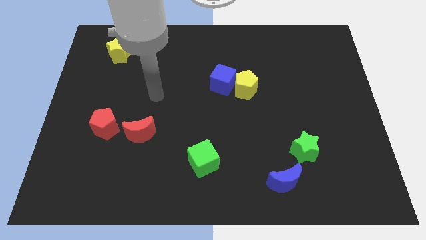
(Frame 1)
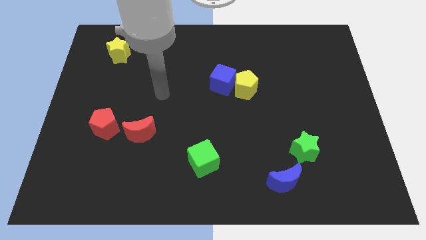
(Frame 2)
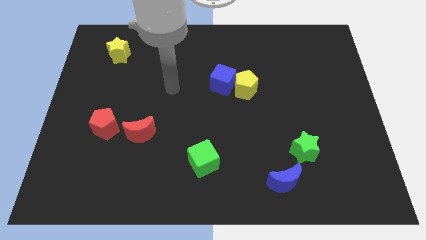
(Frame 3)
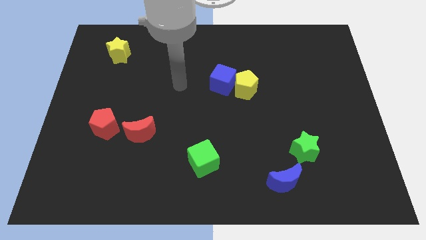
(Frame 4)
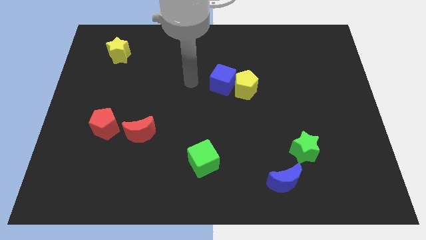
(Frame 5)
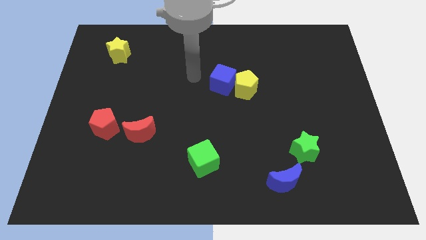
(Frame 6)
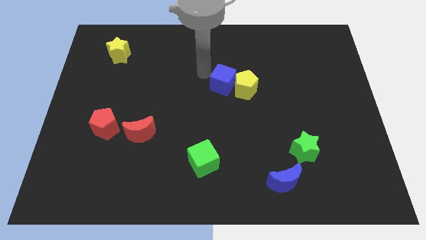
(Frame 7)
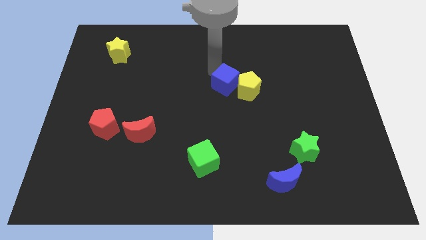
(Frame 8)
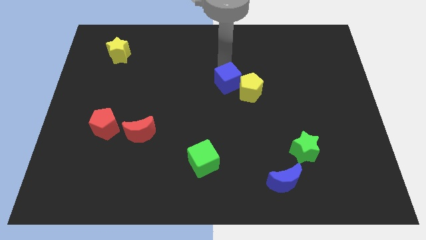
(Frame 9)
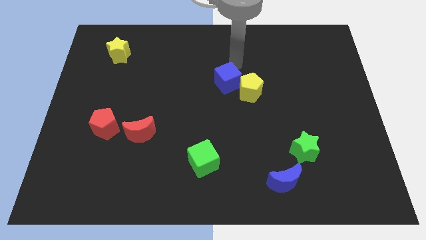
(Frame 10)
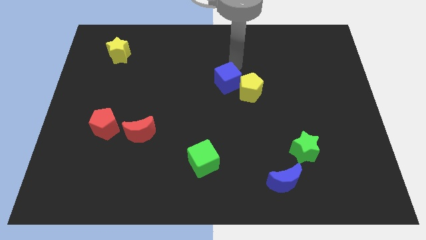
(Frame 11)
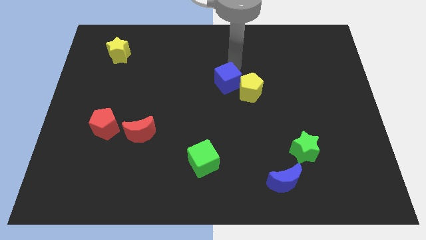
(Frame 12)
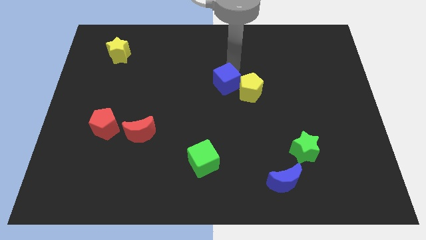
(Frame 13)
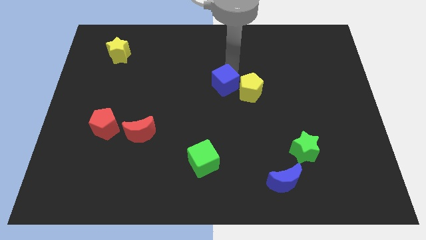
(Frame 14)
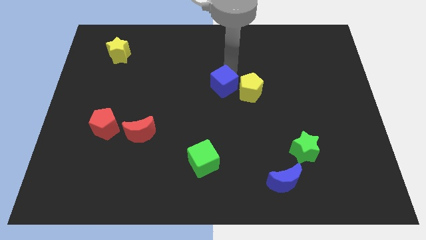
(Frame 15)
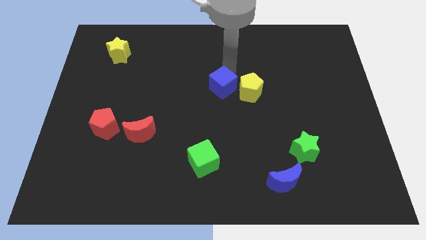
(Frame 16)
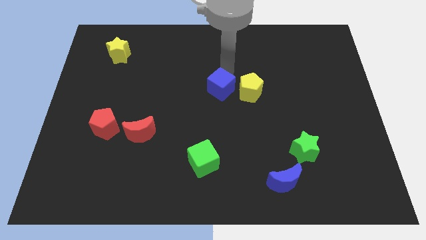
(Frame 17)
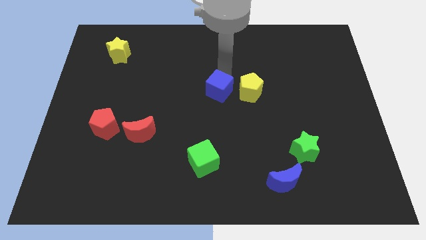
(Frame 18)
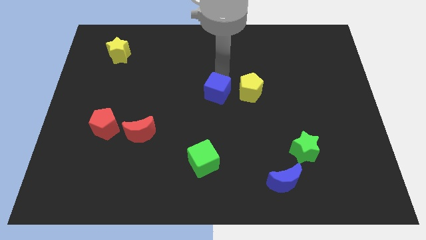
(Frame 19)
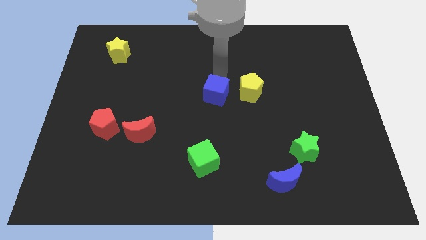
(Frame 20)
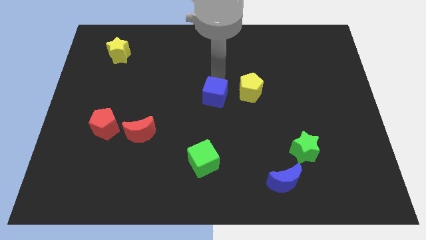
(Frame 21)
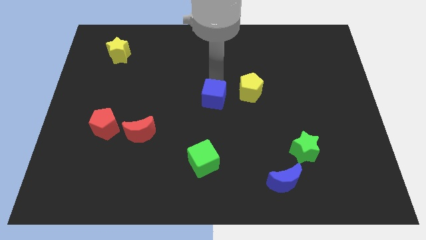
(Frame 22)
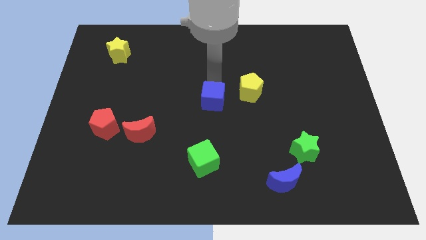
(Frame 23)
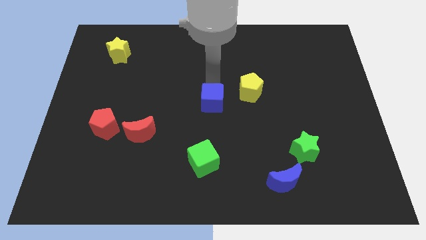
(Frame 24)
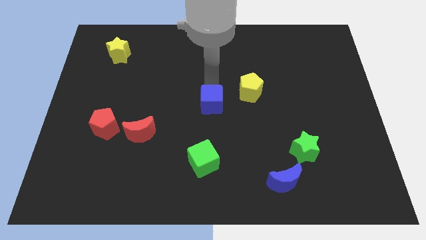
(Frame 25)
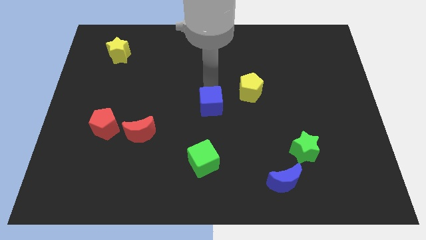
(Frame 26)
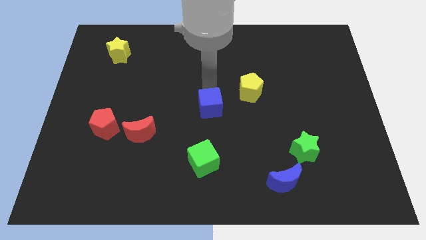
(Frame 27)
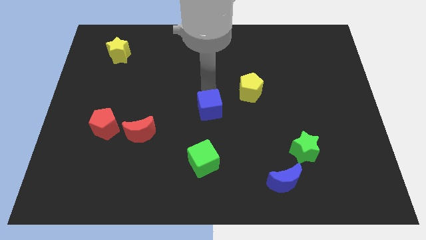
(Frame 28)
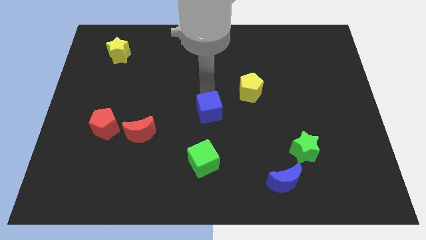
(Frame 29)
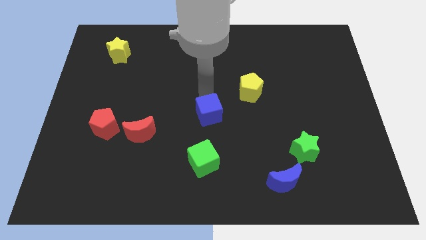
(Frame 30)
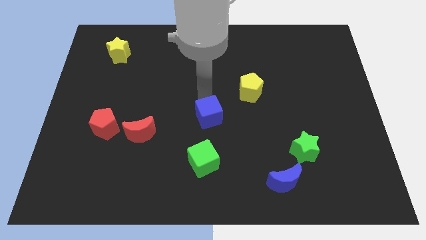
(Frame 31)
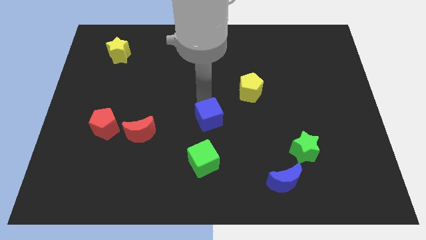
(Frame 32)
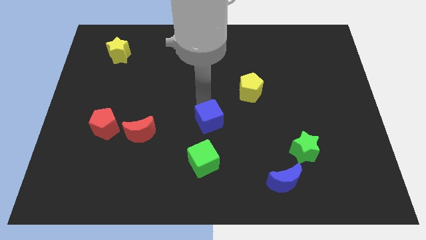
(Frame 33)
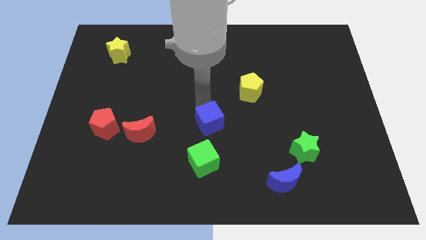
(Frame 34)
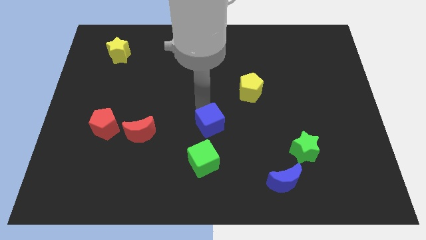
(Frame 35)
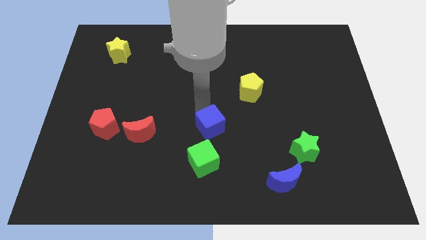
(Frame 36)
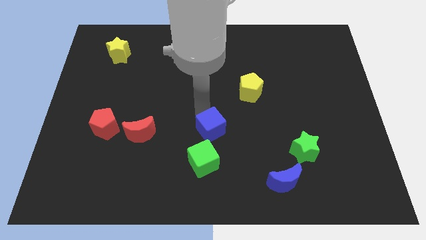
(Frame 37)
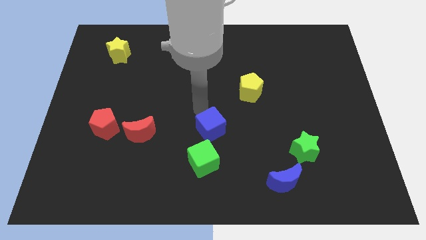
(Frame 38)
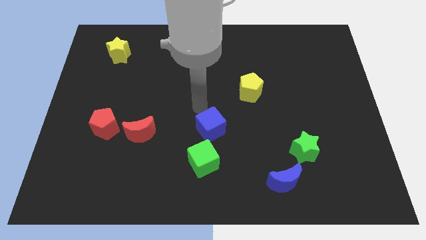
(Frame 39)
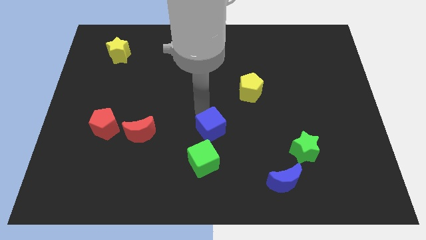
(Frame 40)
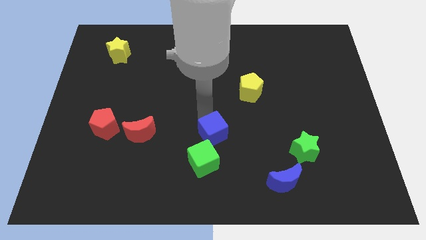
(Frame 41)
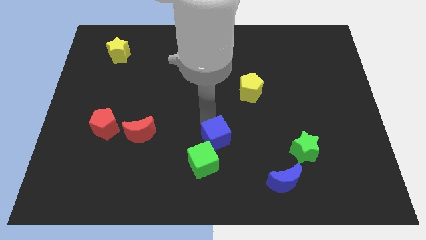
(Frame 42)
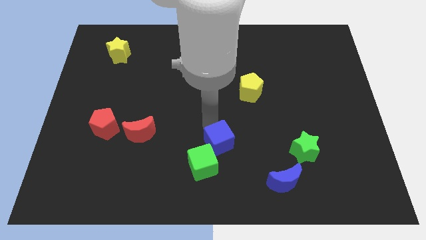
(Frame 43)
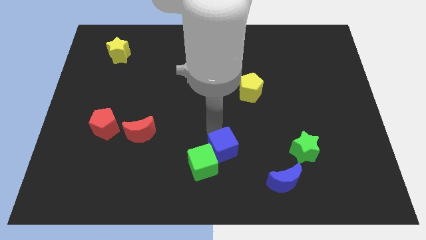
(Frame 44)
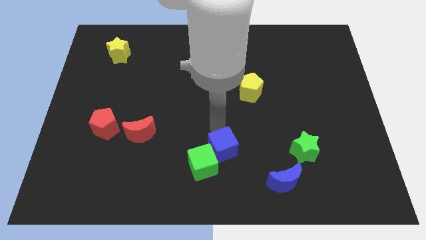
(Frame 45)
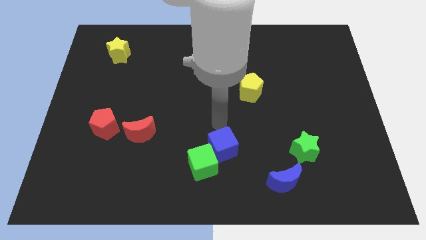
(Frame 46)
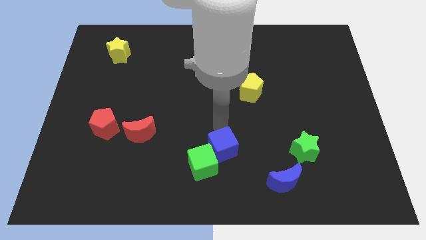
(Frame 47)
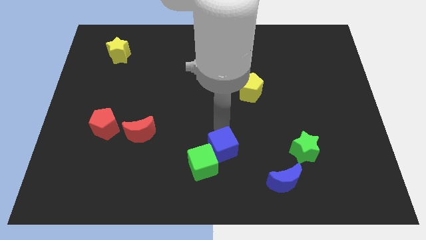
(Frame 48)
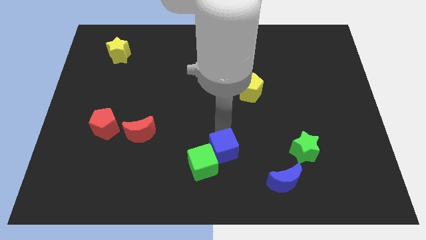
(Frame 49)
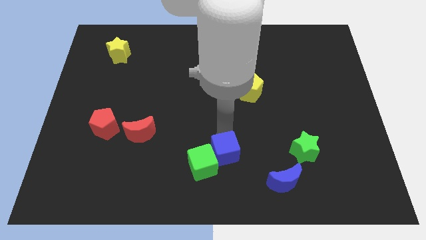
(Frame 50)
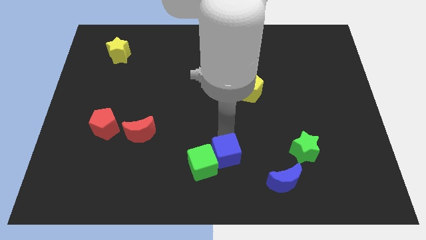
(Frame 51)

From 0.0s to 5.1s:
slide the blue cube to the bottom side

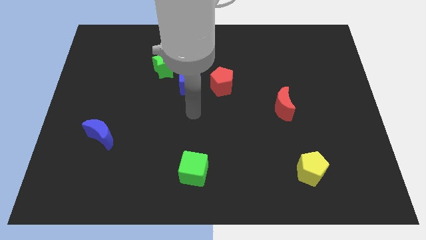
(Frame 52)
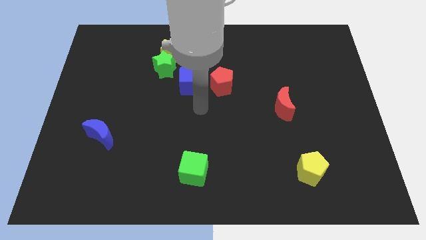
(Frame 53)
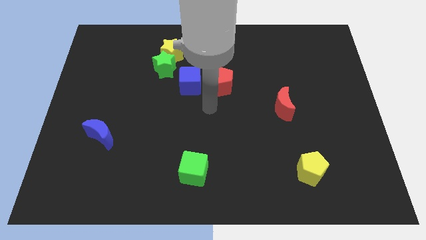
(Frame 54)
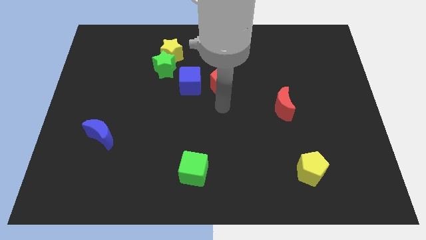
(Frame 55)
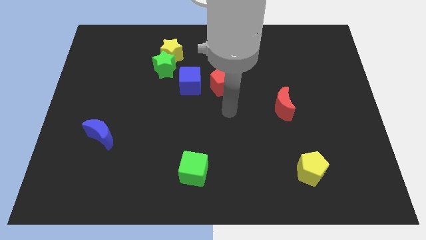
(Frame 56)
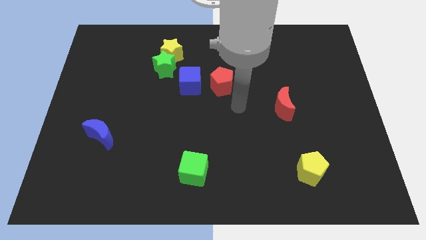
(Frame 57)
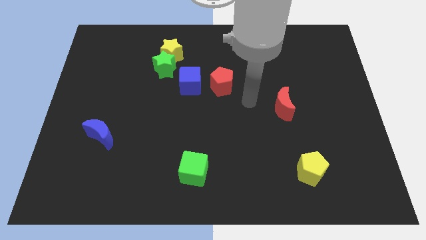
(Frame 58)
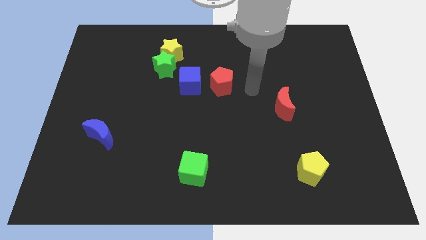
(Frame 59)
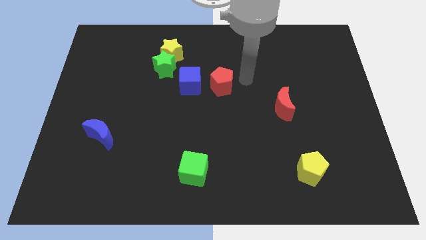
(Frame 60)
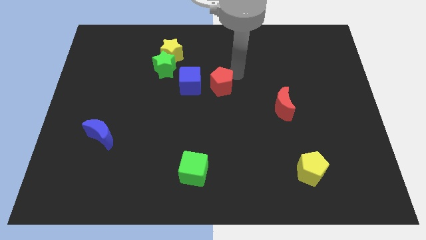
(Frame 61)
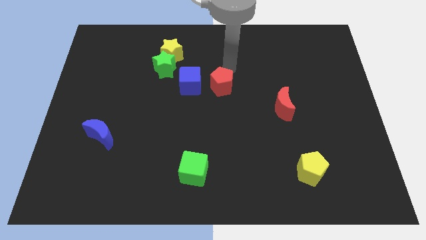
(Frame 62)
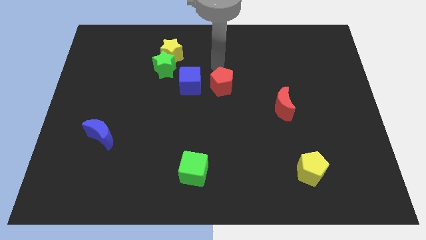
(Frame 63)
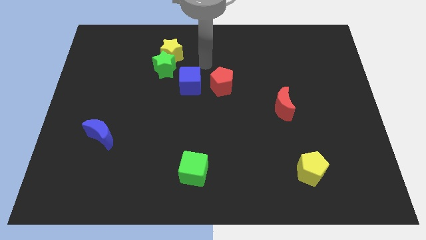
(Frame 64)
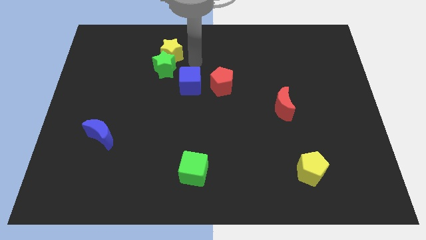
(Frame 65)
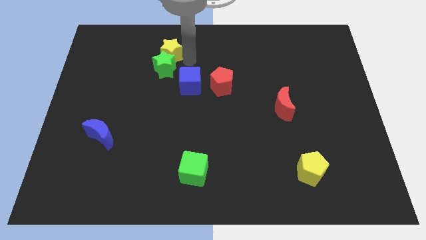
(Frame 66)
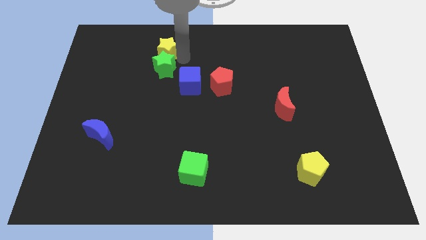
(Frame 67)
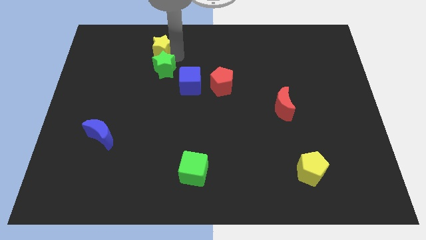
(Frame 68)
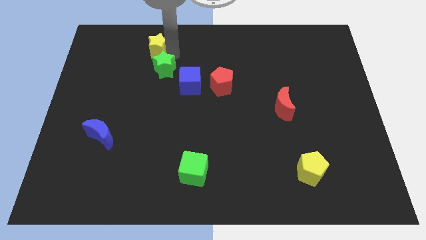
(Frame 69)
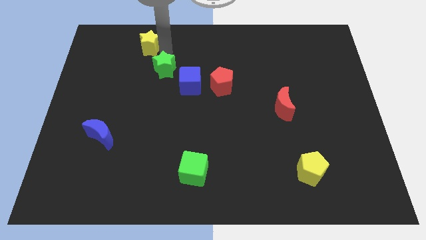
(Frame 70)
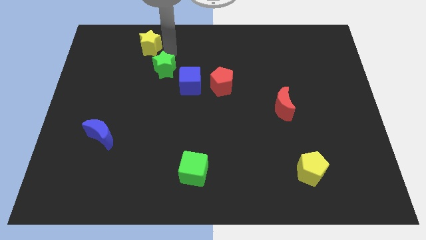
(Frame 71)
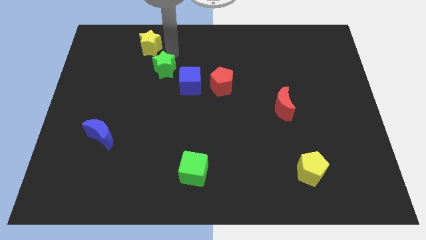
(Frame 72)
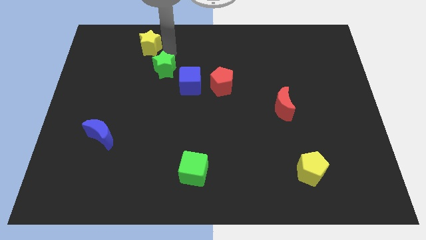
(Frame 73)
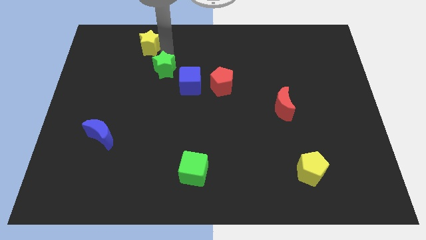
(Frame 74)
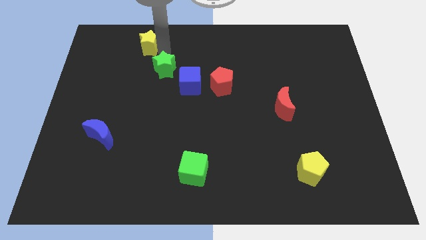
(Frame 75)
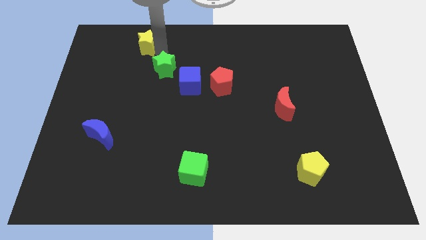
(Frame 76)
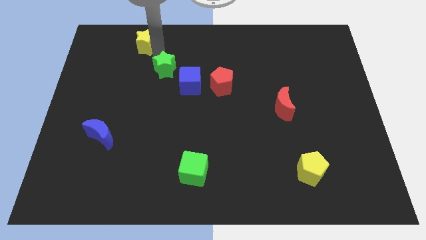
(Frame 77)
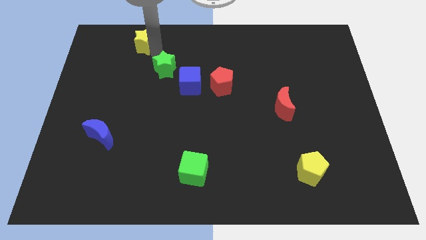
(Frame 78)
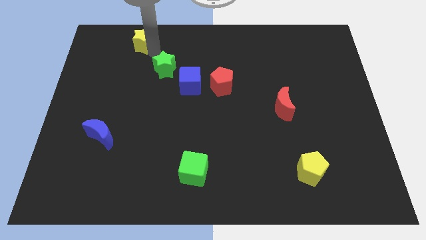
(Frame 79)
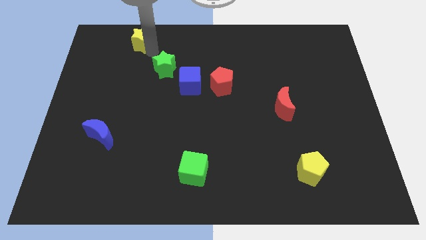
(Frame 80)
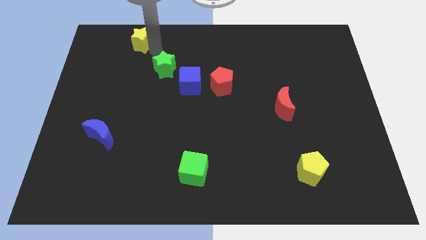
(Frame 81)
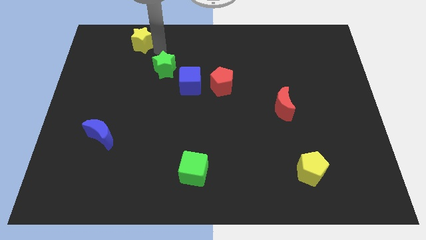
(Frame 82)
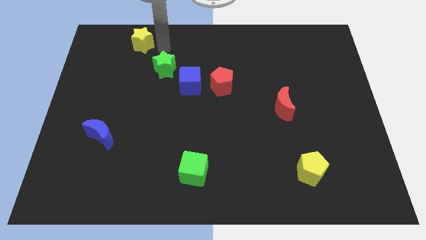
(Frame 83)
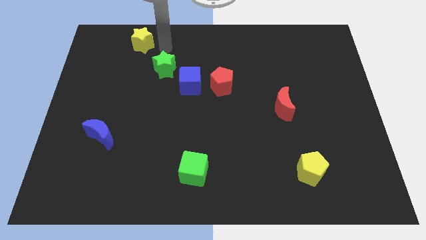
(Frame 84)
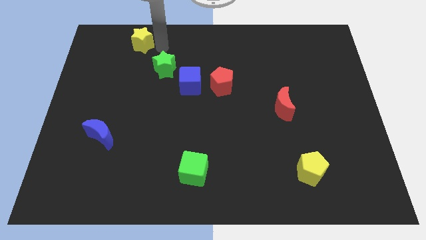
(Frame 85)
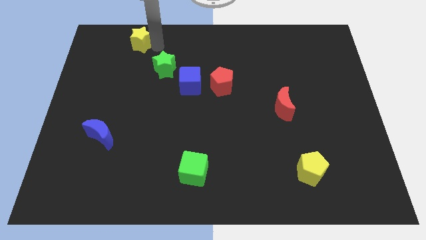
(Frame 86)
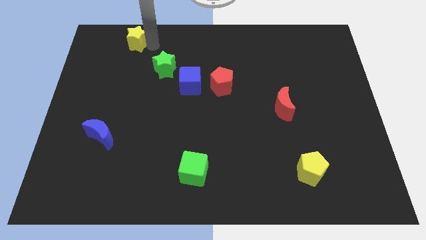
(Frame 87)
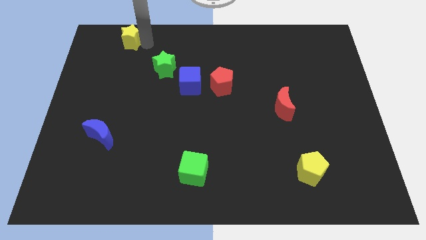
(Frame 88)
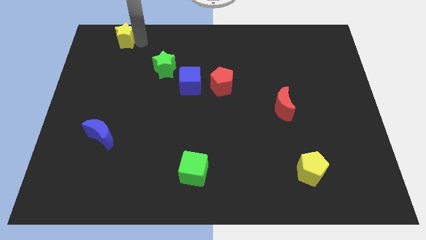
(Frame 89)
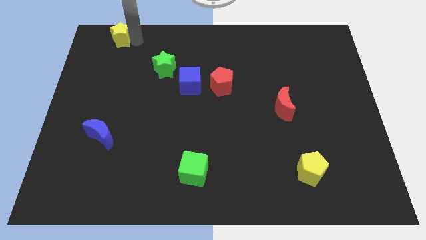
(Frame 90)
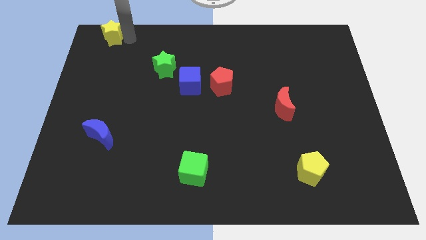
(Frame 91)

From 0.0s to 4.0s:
put the yellow star to the top left of the board
